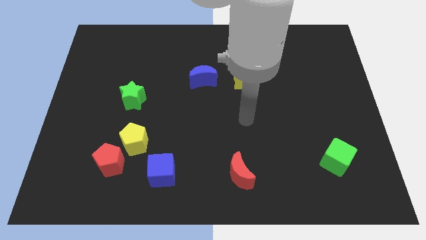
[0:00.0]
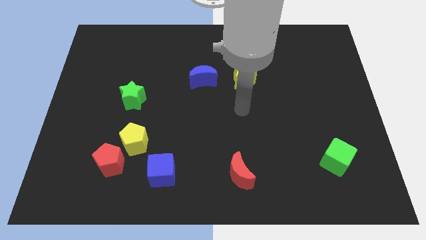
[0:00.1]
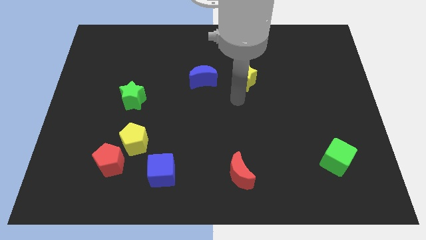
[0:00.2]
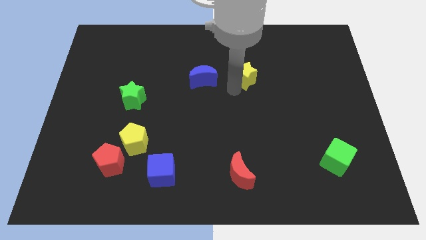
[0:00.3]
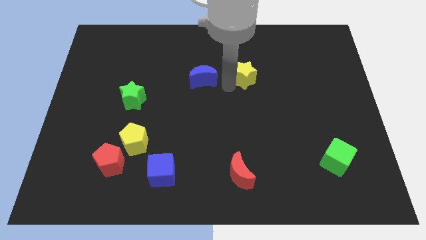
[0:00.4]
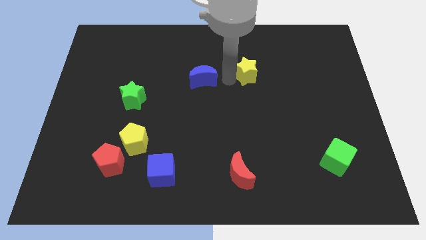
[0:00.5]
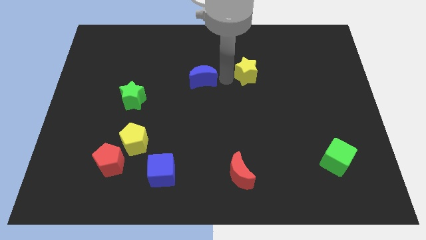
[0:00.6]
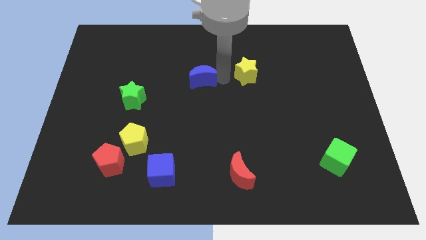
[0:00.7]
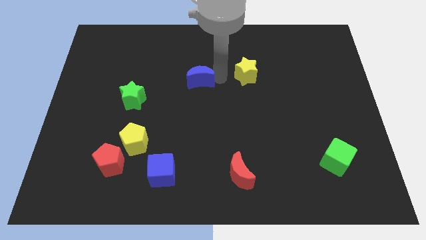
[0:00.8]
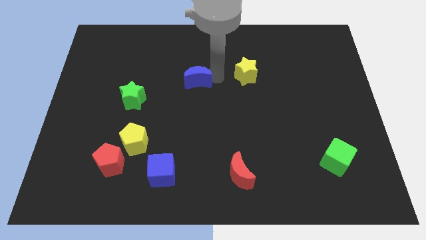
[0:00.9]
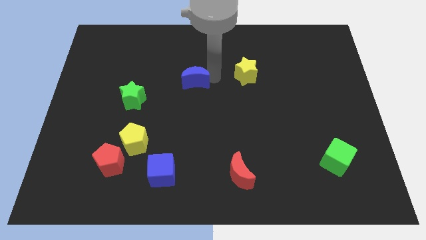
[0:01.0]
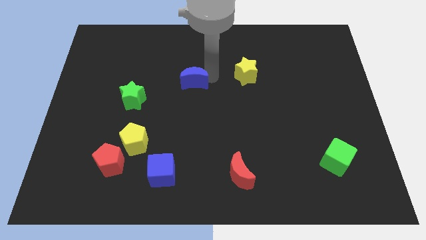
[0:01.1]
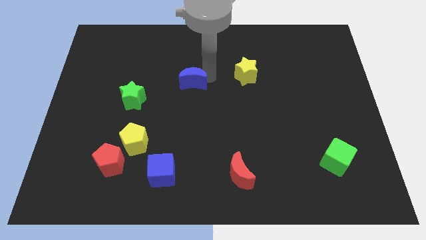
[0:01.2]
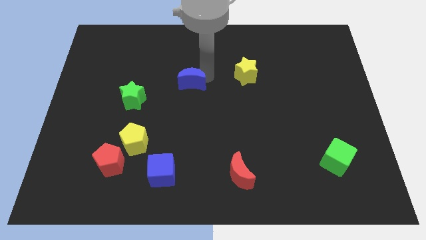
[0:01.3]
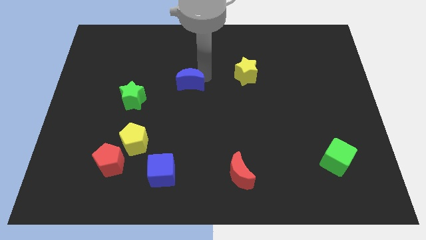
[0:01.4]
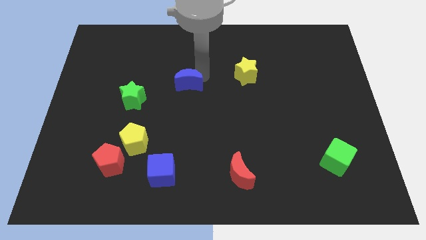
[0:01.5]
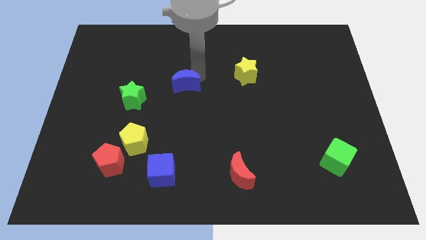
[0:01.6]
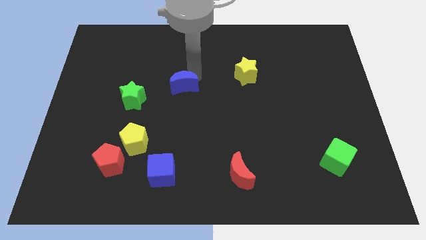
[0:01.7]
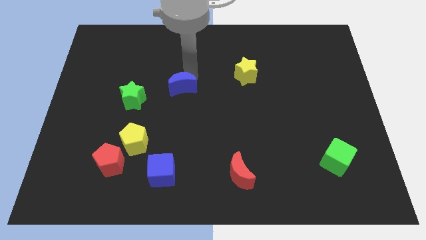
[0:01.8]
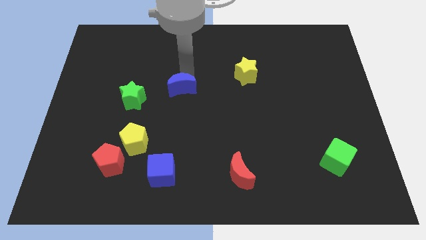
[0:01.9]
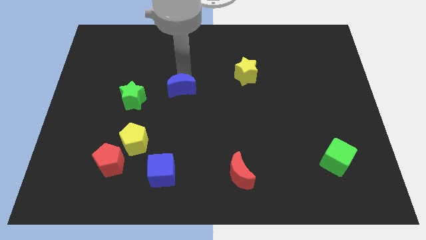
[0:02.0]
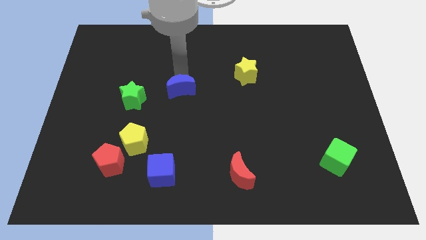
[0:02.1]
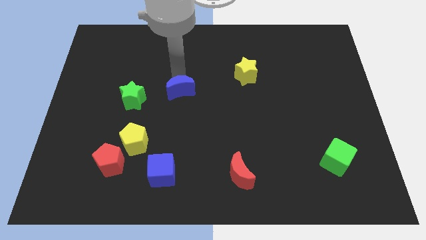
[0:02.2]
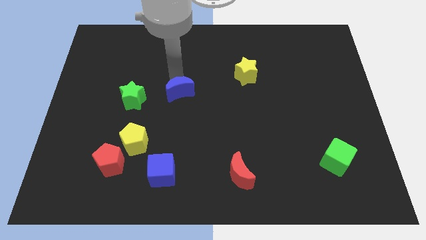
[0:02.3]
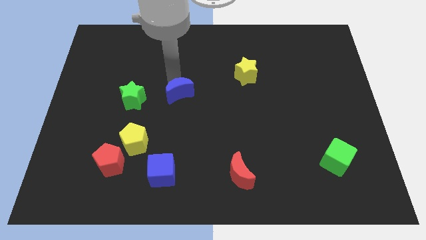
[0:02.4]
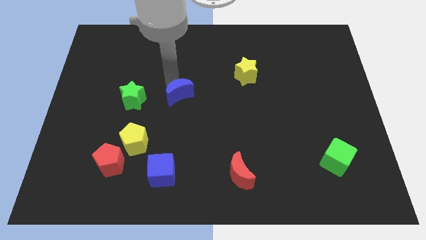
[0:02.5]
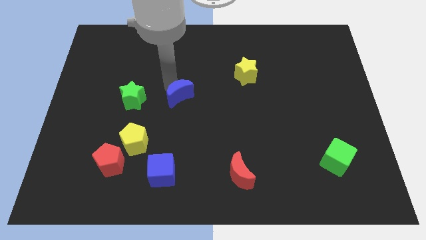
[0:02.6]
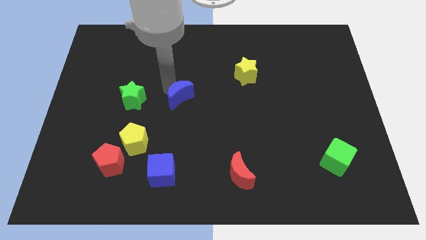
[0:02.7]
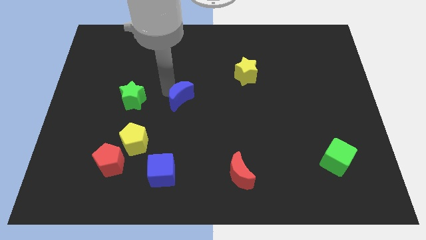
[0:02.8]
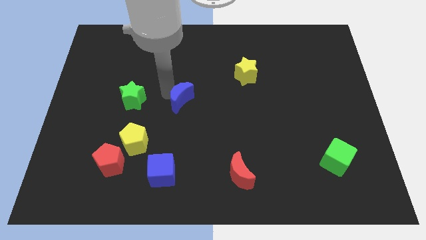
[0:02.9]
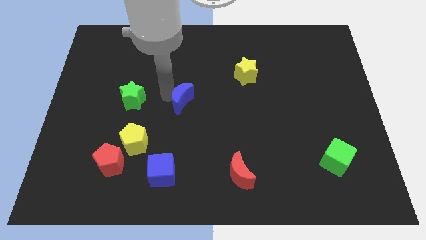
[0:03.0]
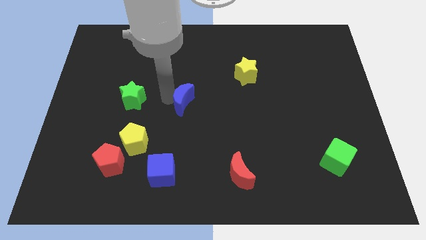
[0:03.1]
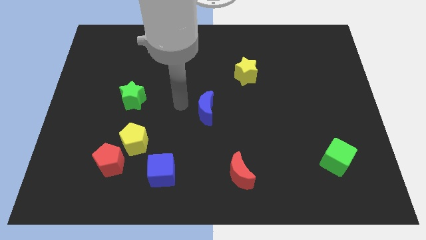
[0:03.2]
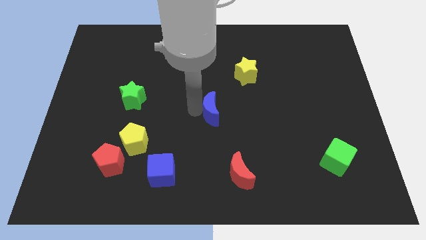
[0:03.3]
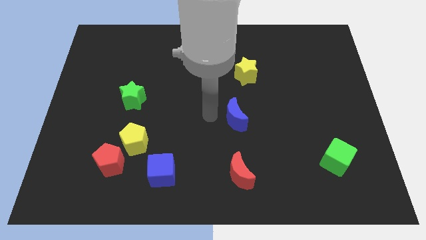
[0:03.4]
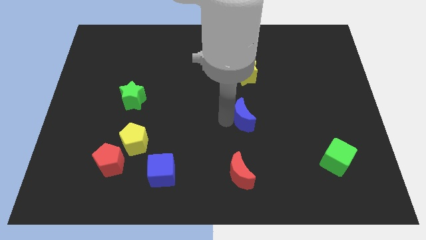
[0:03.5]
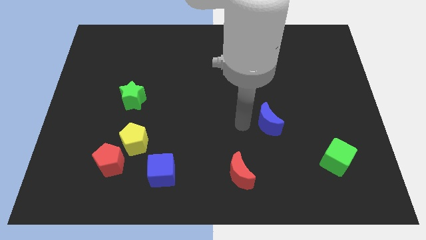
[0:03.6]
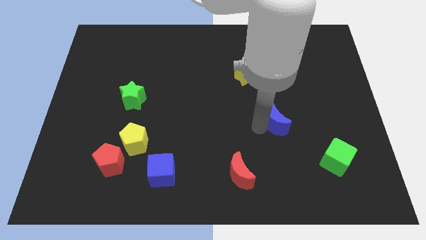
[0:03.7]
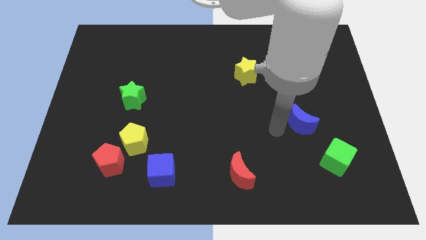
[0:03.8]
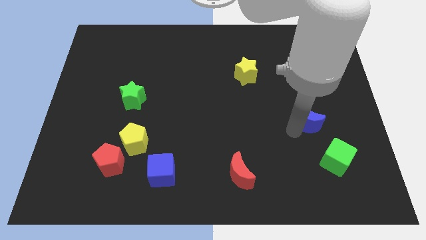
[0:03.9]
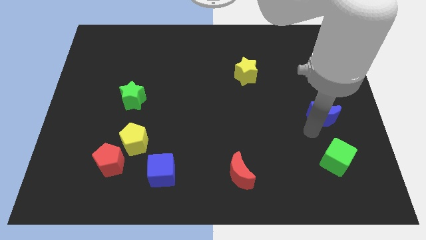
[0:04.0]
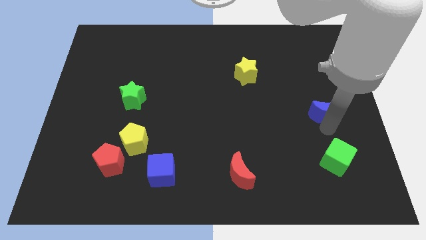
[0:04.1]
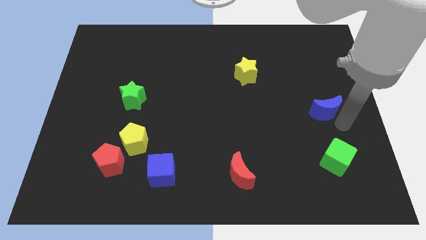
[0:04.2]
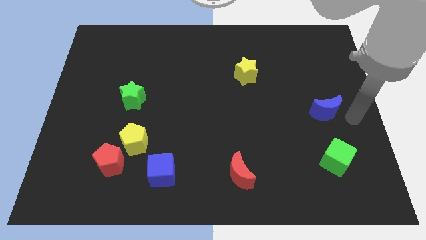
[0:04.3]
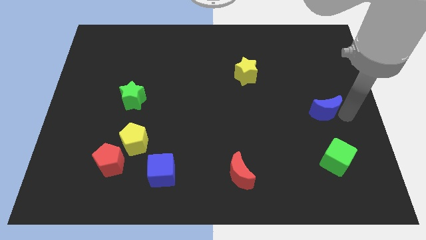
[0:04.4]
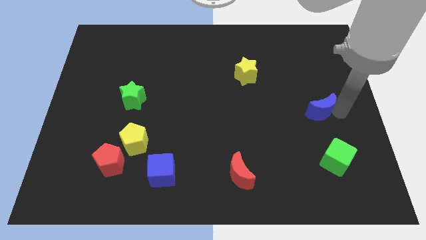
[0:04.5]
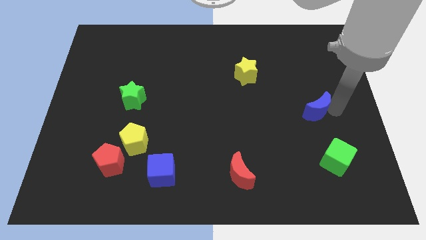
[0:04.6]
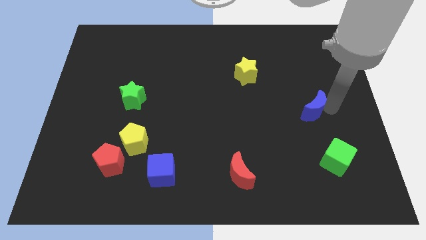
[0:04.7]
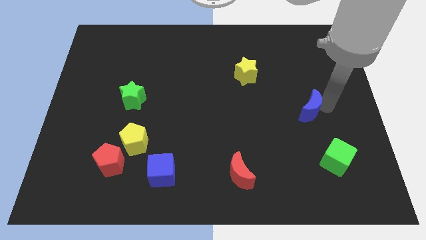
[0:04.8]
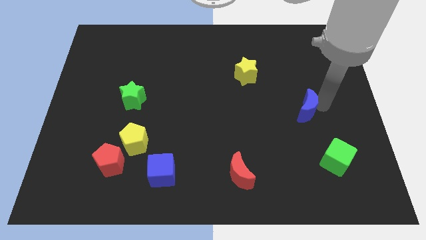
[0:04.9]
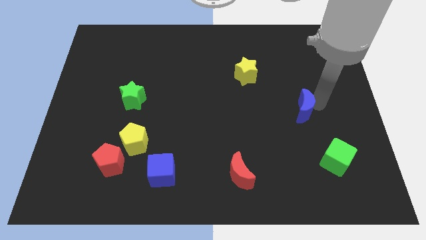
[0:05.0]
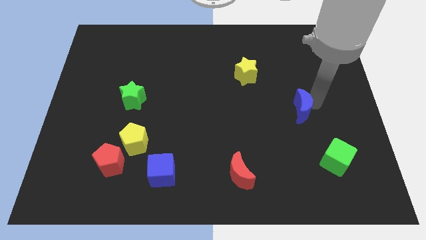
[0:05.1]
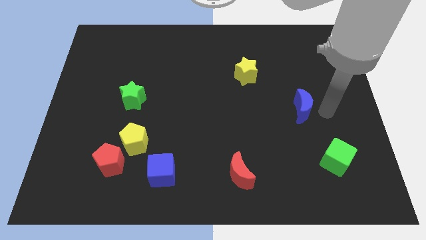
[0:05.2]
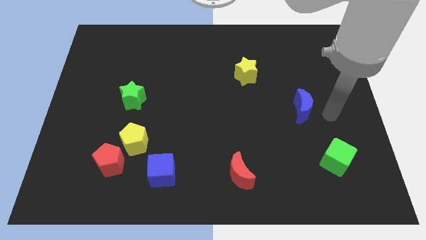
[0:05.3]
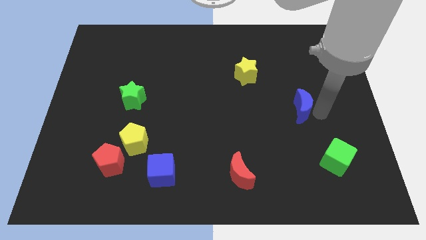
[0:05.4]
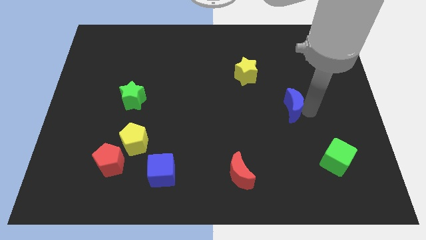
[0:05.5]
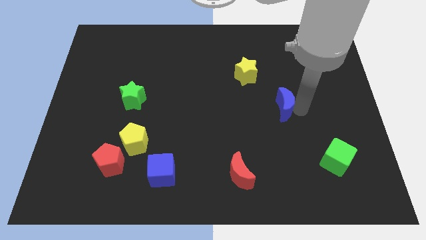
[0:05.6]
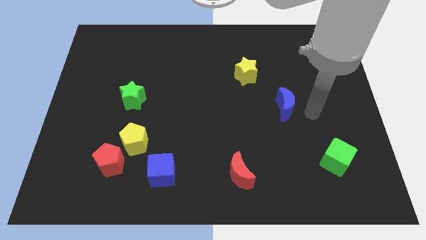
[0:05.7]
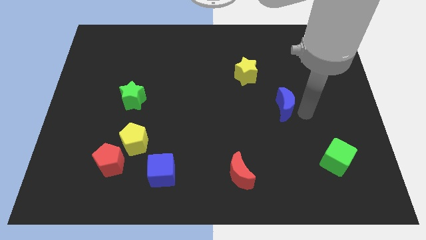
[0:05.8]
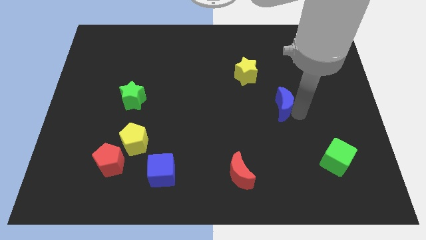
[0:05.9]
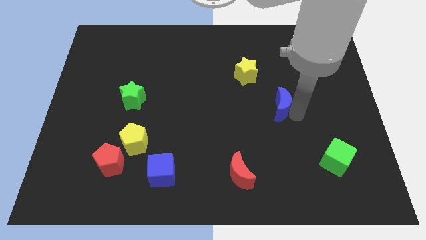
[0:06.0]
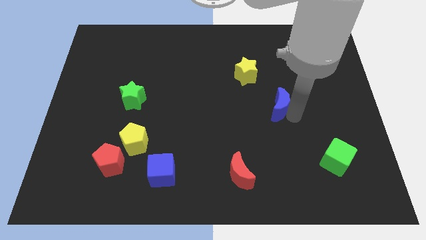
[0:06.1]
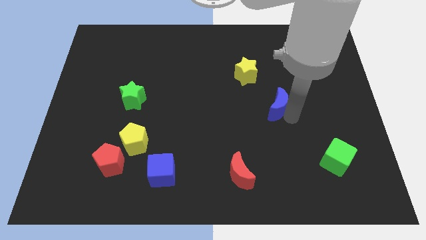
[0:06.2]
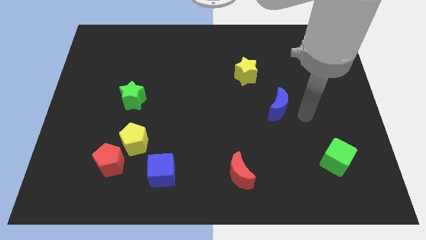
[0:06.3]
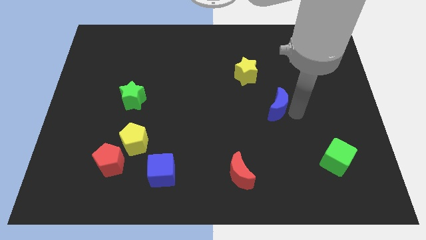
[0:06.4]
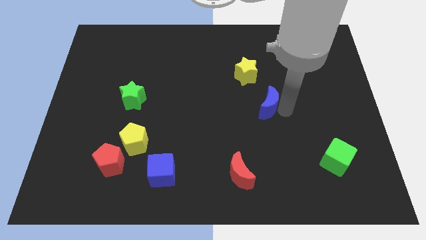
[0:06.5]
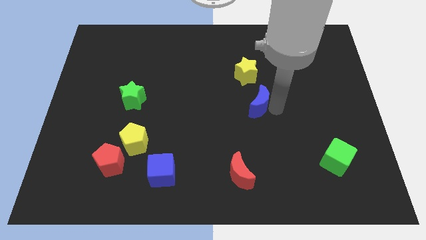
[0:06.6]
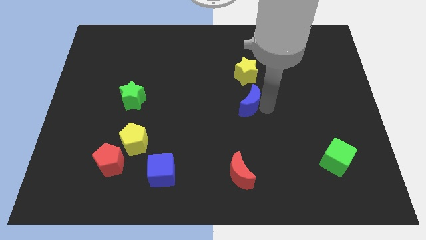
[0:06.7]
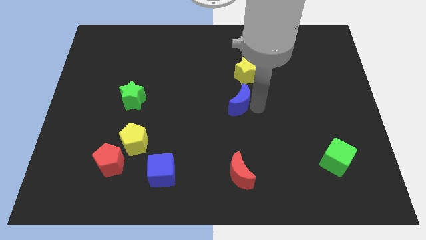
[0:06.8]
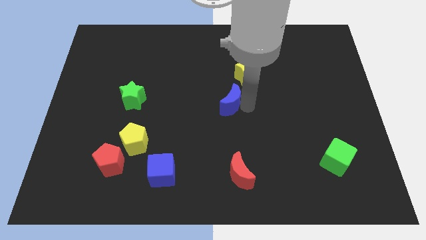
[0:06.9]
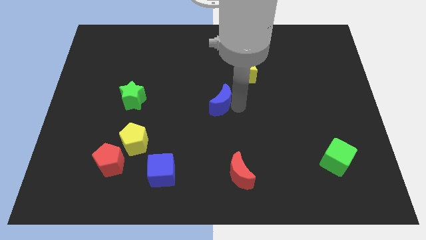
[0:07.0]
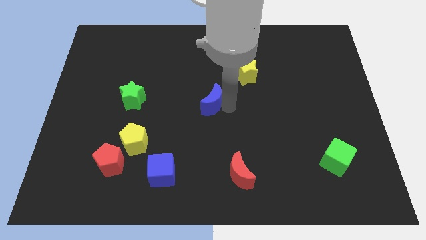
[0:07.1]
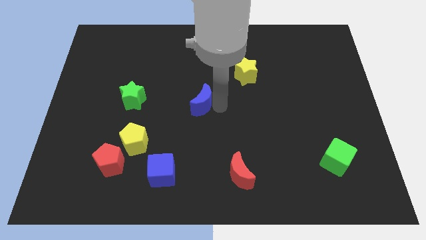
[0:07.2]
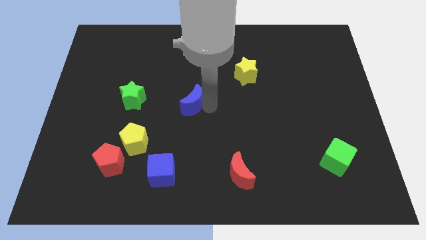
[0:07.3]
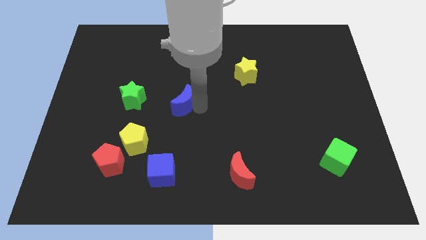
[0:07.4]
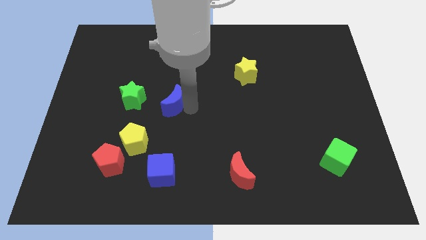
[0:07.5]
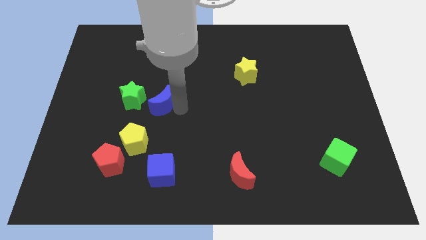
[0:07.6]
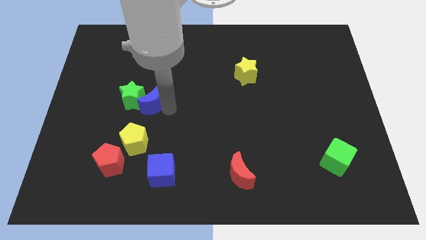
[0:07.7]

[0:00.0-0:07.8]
slide the blue moon a little bit to the left

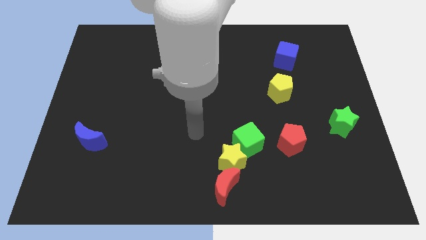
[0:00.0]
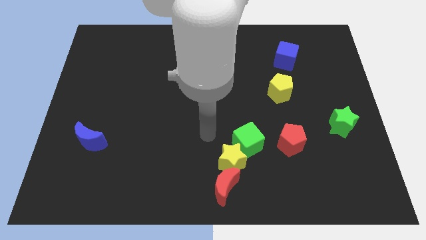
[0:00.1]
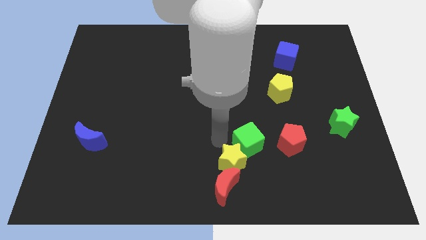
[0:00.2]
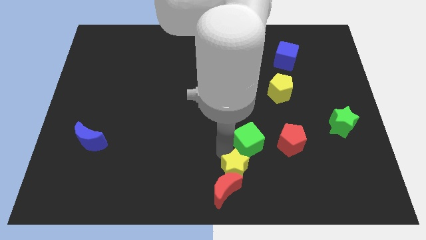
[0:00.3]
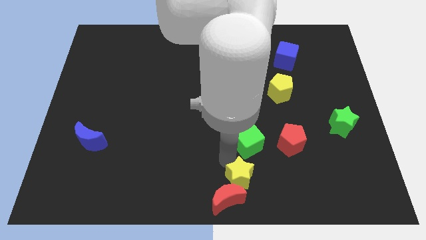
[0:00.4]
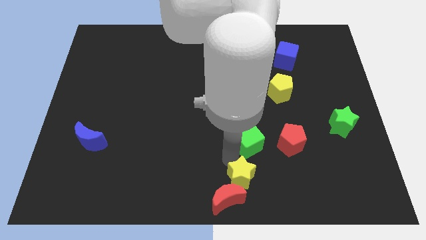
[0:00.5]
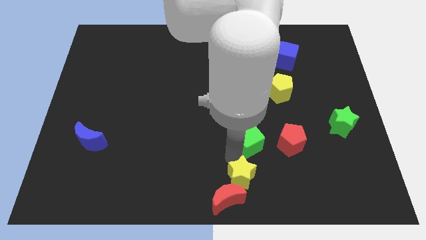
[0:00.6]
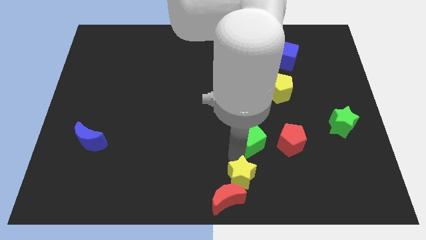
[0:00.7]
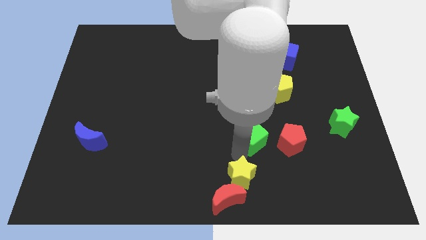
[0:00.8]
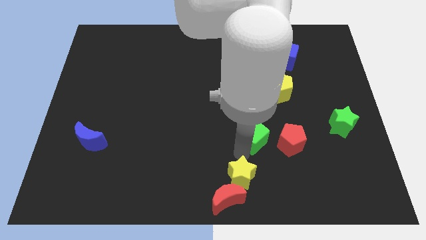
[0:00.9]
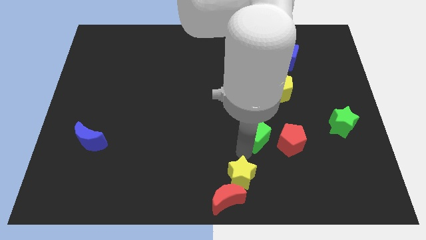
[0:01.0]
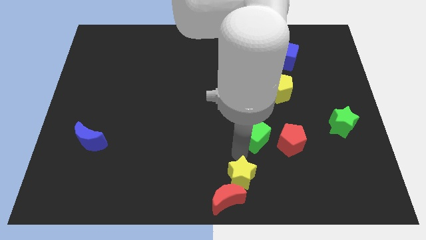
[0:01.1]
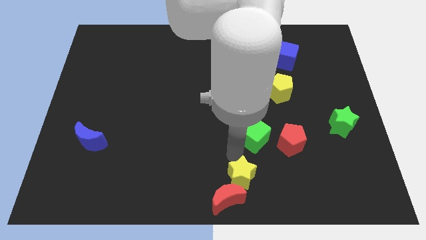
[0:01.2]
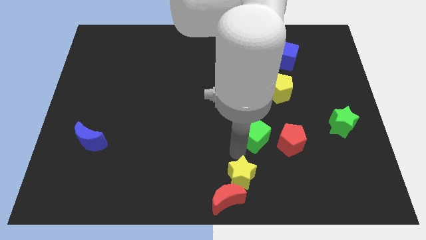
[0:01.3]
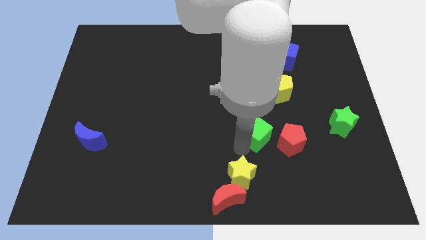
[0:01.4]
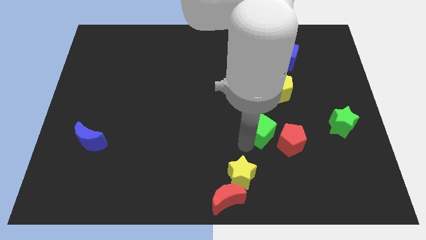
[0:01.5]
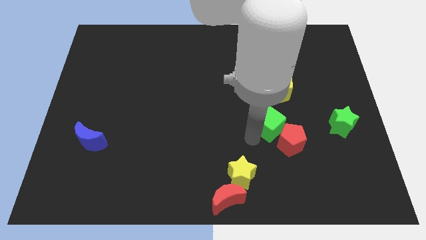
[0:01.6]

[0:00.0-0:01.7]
slightly slide the green cube up and to the right diagonally
